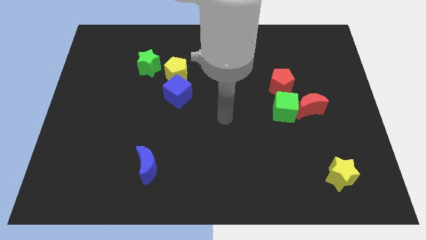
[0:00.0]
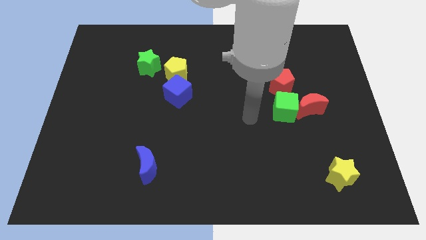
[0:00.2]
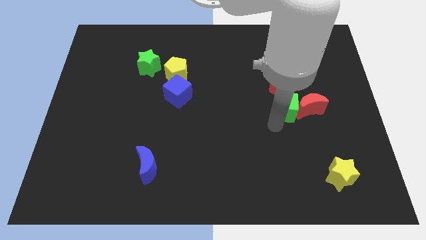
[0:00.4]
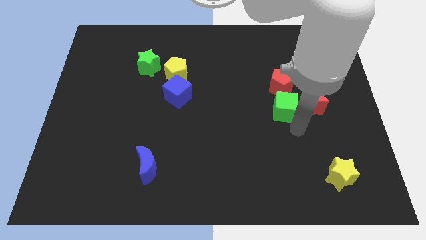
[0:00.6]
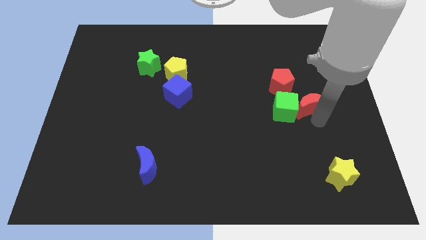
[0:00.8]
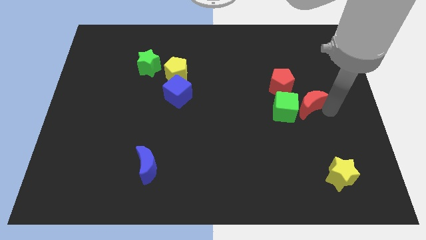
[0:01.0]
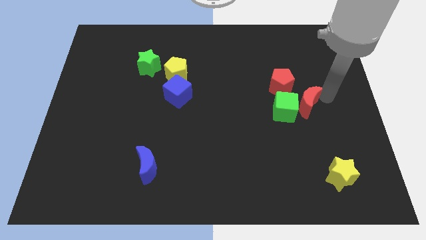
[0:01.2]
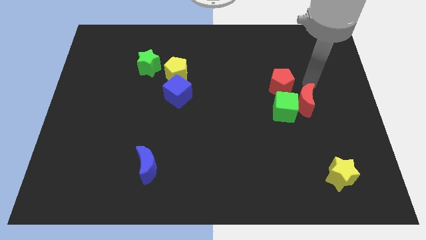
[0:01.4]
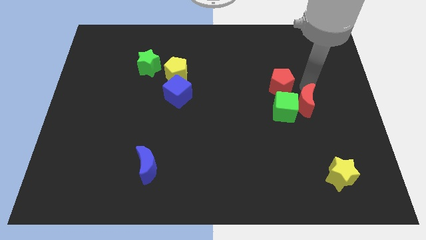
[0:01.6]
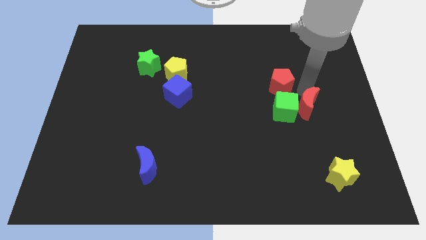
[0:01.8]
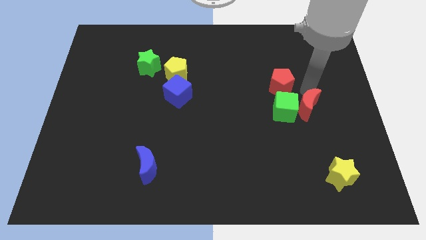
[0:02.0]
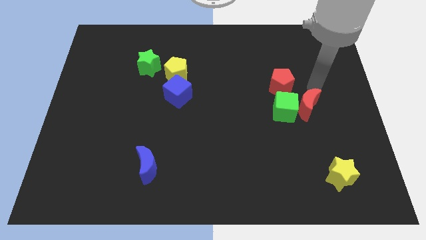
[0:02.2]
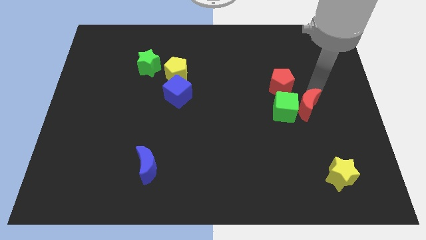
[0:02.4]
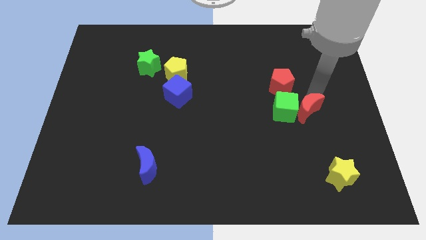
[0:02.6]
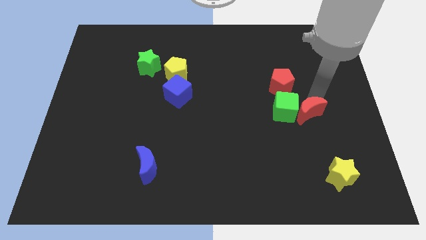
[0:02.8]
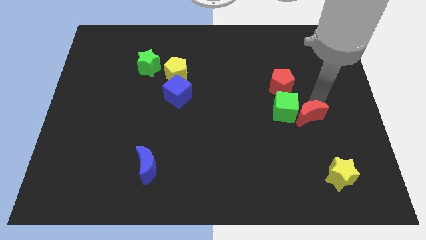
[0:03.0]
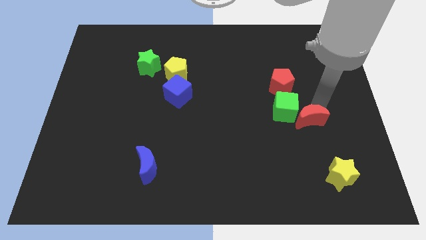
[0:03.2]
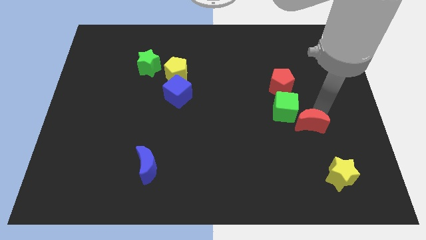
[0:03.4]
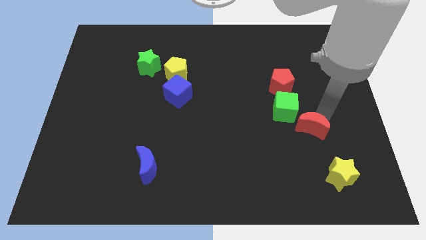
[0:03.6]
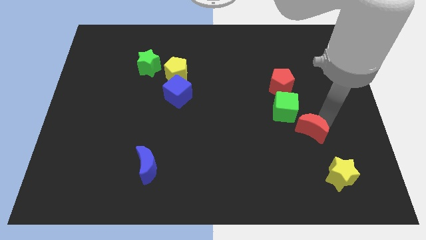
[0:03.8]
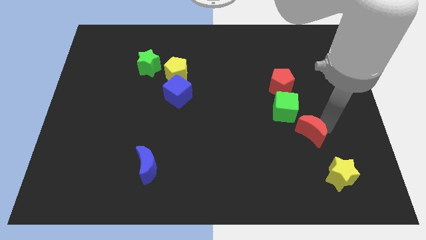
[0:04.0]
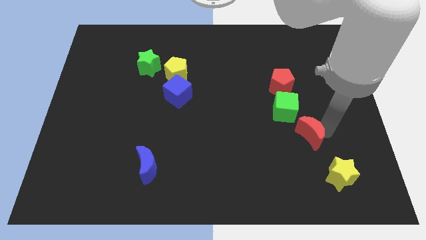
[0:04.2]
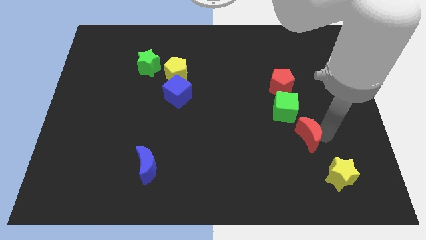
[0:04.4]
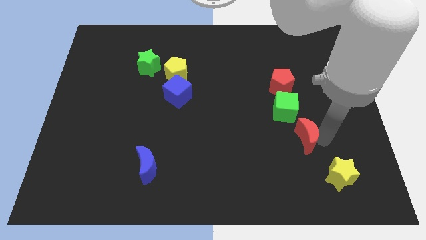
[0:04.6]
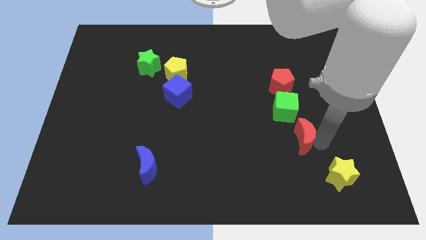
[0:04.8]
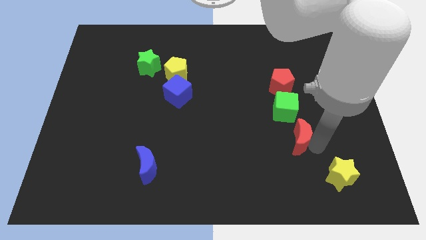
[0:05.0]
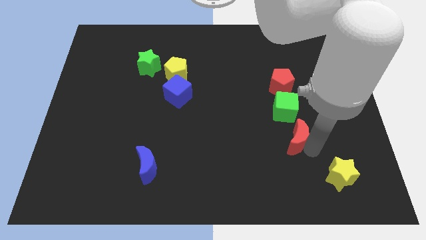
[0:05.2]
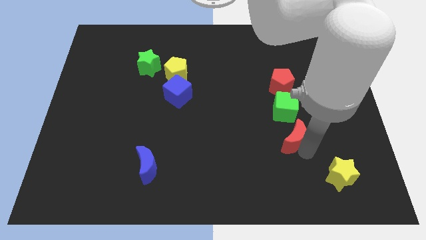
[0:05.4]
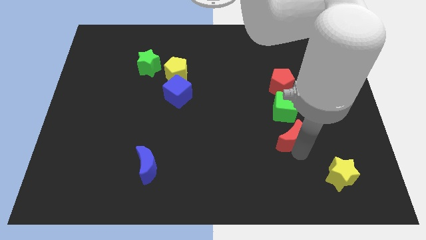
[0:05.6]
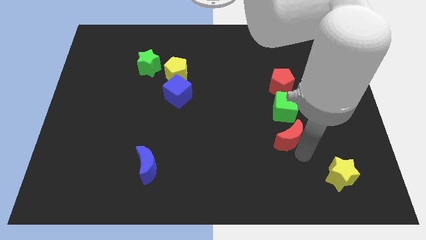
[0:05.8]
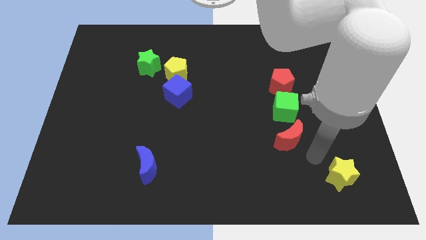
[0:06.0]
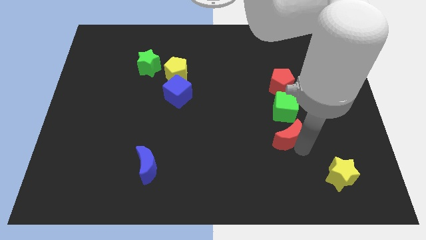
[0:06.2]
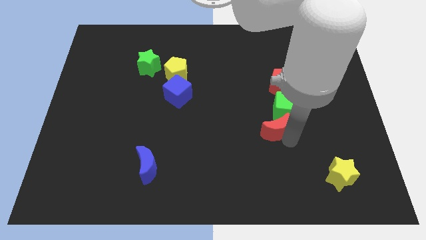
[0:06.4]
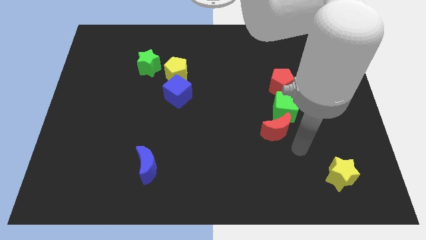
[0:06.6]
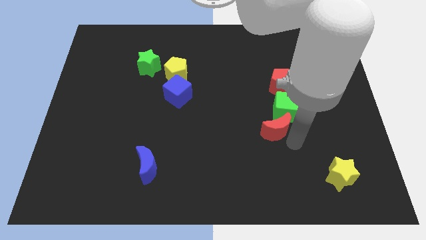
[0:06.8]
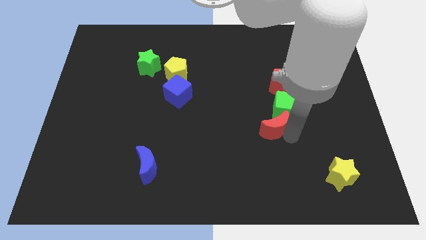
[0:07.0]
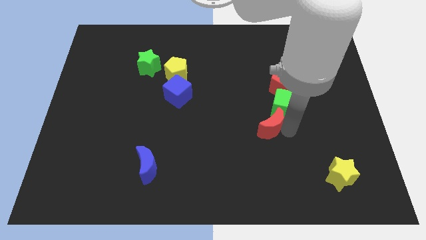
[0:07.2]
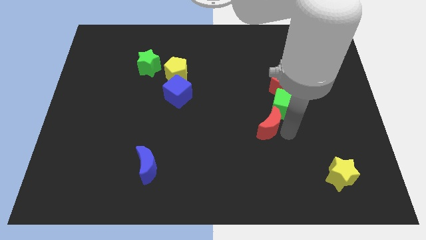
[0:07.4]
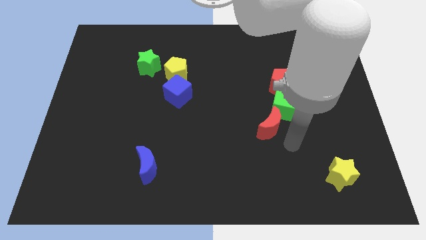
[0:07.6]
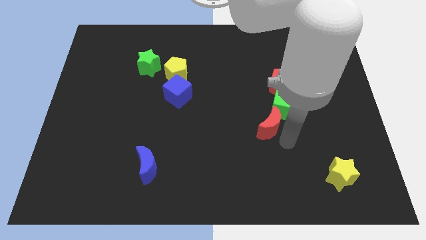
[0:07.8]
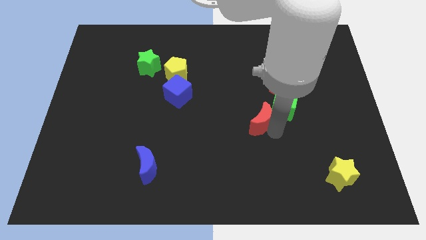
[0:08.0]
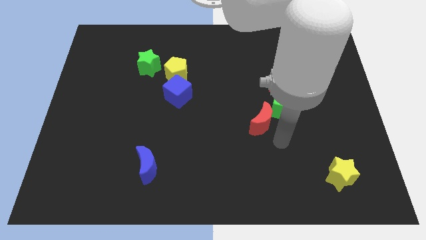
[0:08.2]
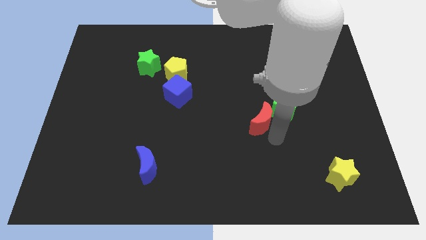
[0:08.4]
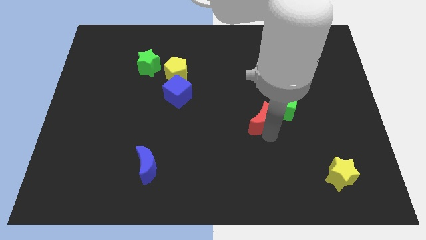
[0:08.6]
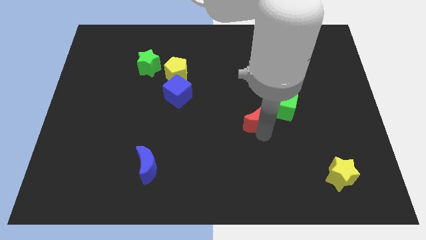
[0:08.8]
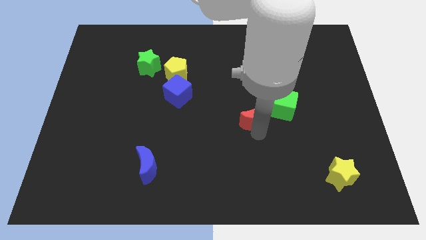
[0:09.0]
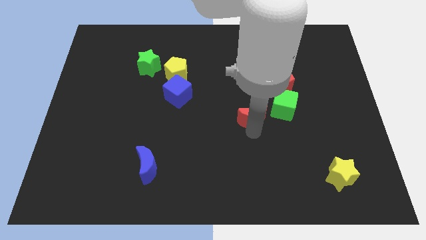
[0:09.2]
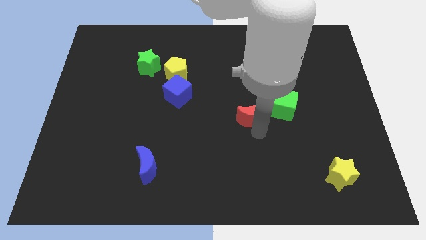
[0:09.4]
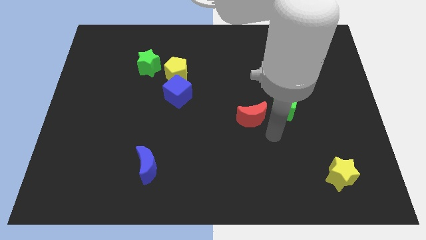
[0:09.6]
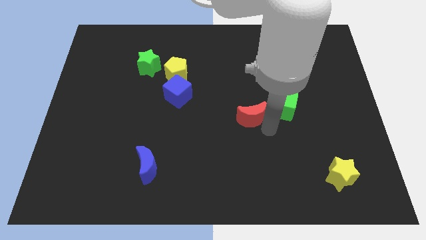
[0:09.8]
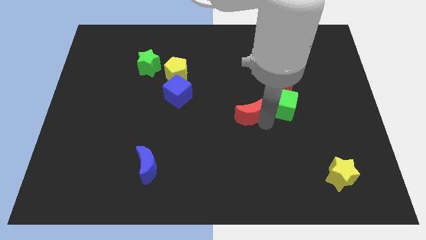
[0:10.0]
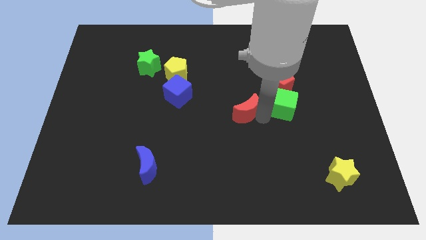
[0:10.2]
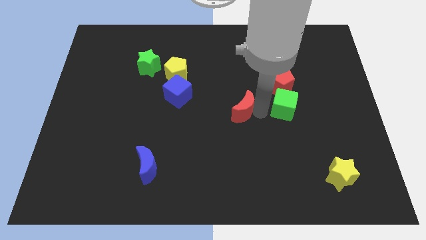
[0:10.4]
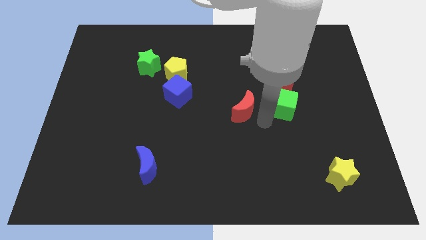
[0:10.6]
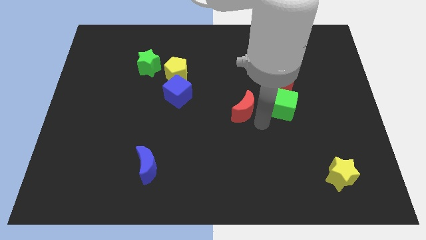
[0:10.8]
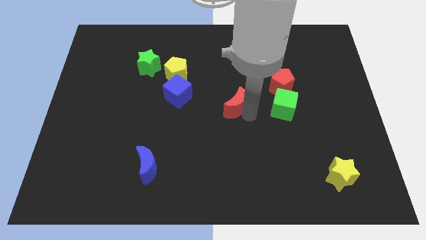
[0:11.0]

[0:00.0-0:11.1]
move the red moon to the right of the blue cube

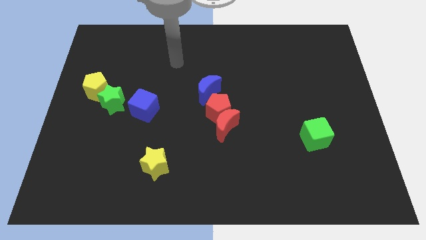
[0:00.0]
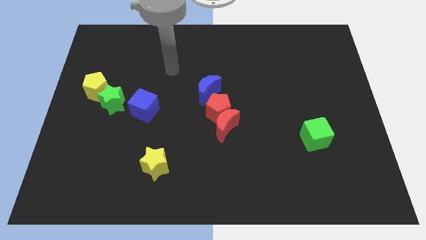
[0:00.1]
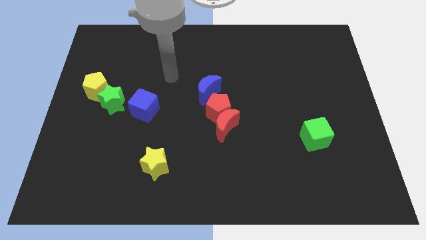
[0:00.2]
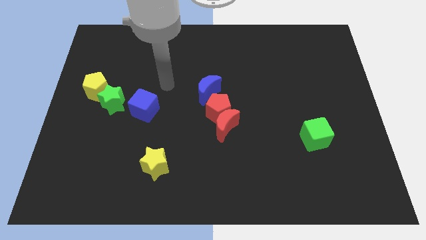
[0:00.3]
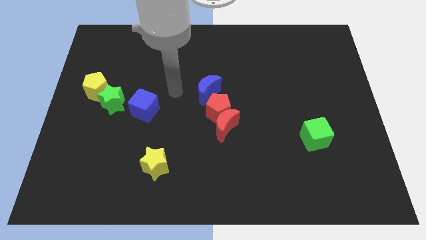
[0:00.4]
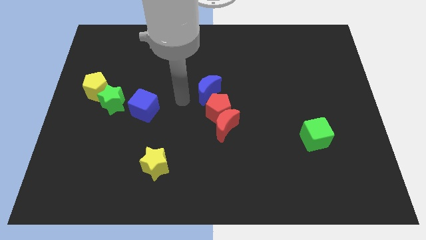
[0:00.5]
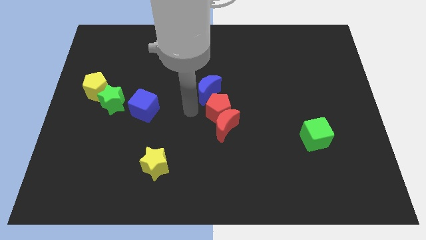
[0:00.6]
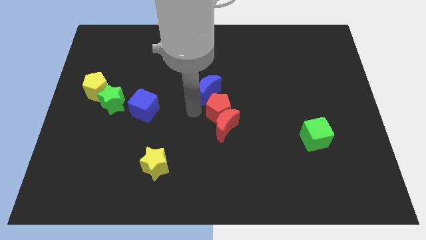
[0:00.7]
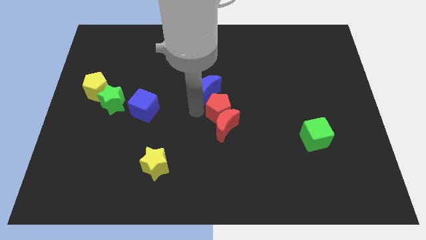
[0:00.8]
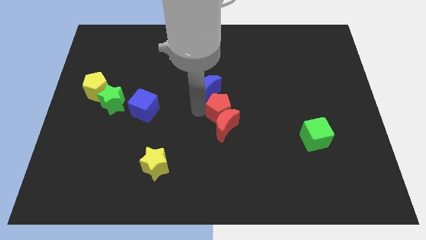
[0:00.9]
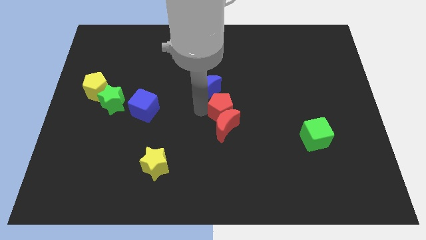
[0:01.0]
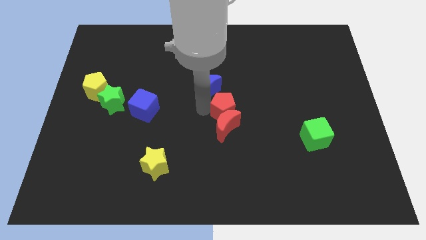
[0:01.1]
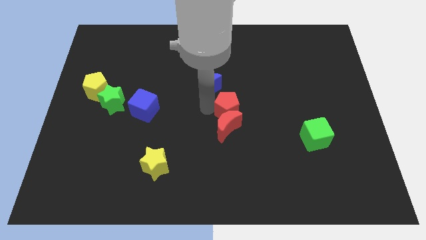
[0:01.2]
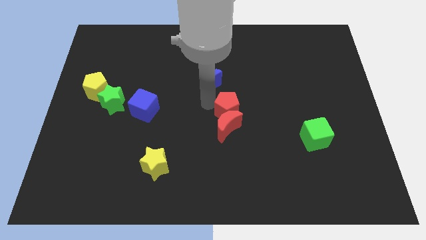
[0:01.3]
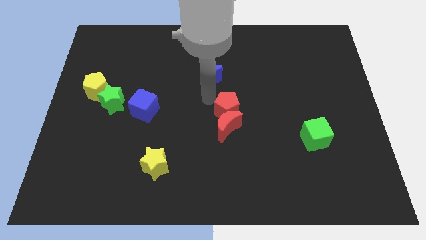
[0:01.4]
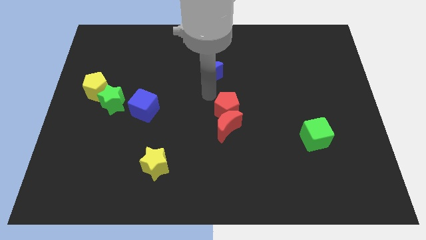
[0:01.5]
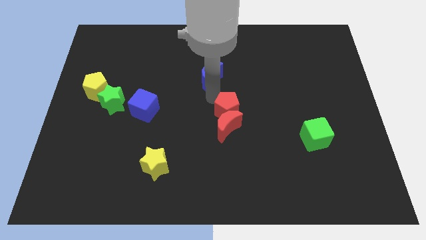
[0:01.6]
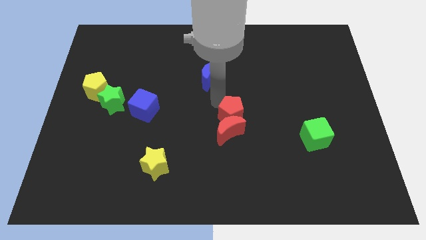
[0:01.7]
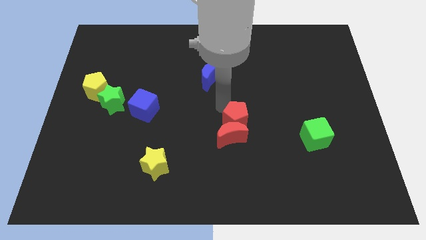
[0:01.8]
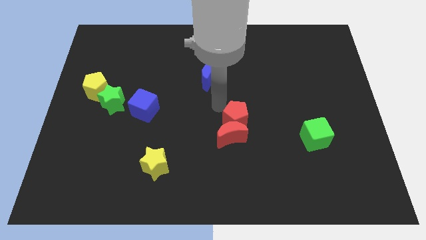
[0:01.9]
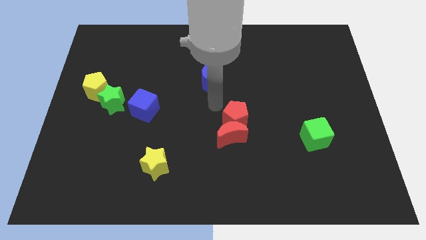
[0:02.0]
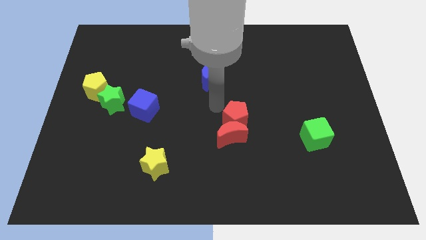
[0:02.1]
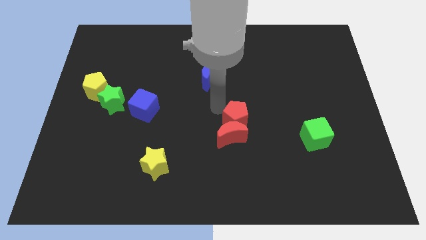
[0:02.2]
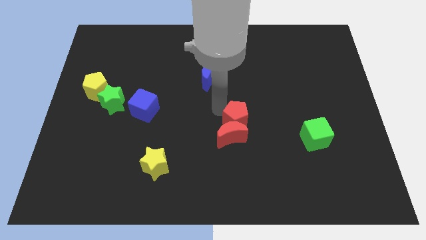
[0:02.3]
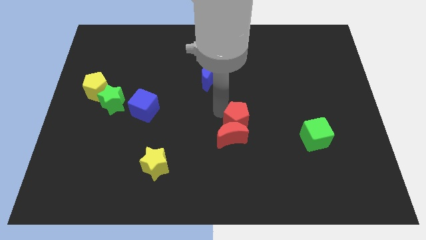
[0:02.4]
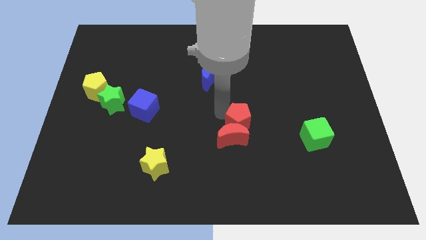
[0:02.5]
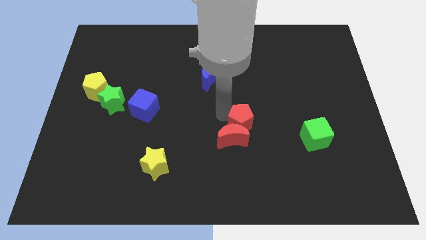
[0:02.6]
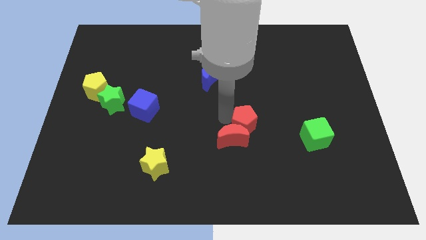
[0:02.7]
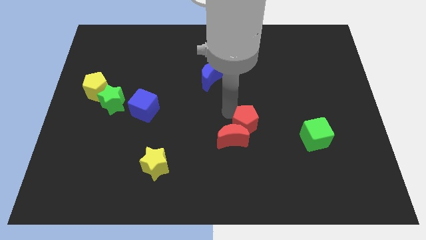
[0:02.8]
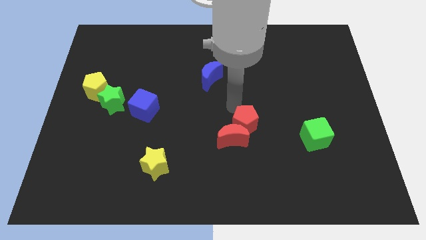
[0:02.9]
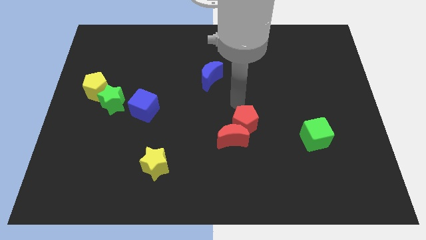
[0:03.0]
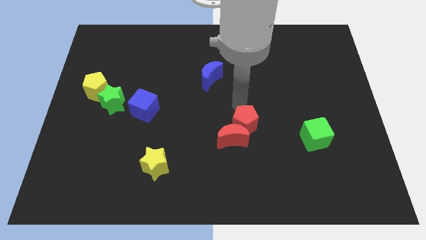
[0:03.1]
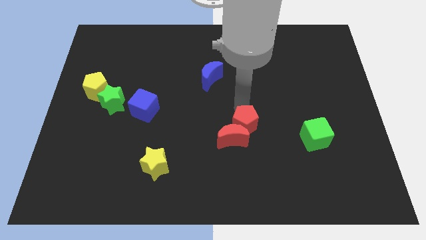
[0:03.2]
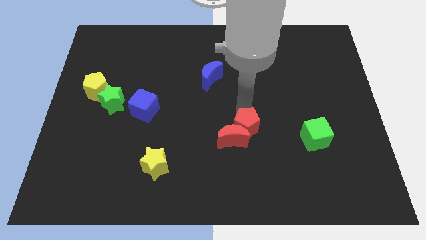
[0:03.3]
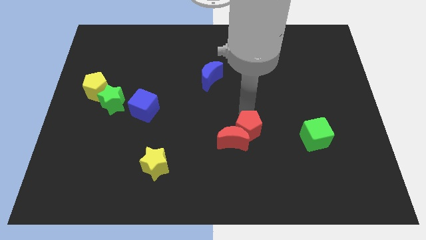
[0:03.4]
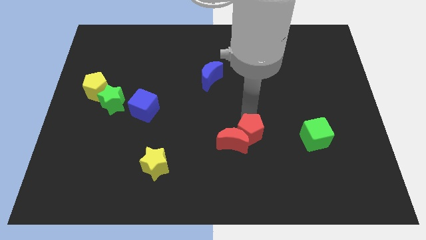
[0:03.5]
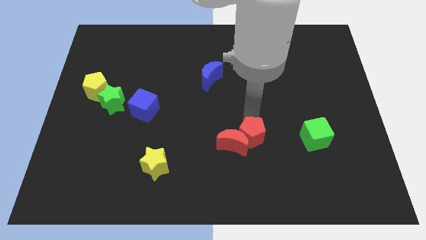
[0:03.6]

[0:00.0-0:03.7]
push the red pentagon diagonally down and to the right of the red moon
